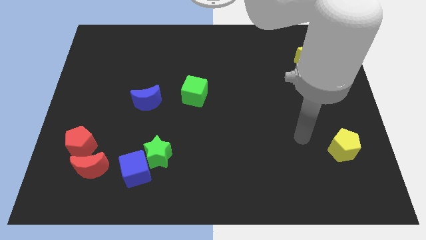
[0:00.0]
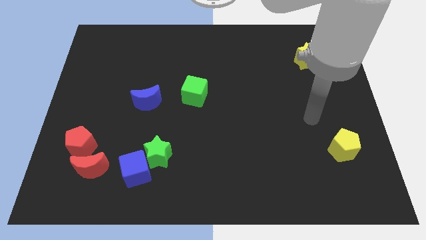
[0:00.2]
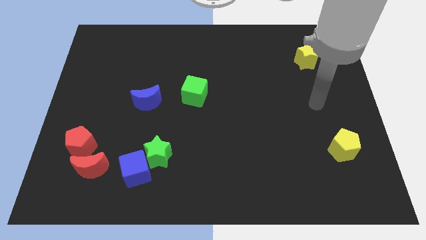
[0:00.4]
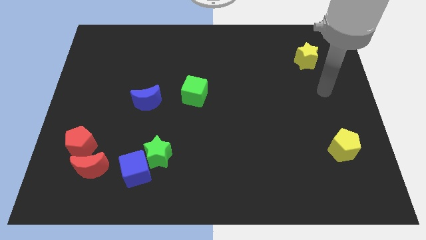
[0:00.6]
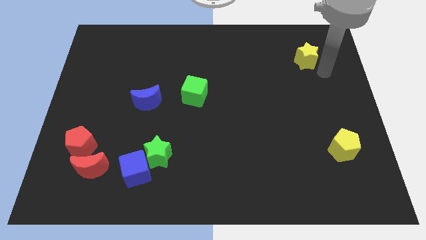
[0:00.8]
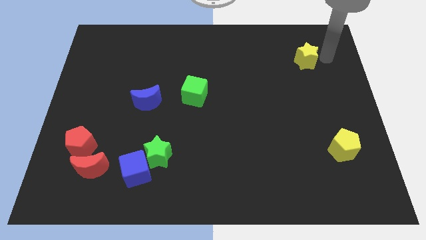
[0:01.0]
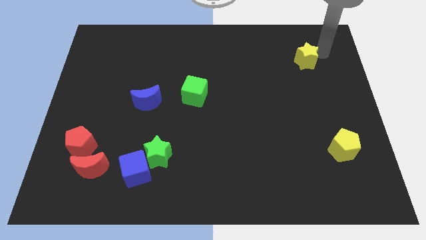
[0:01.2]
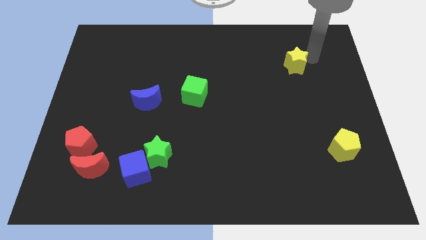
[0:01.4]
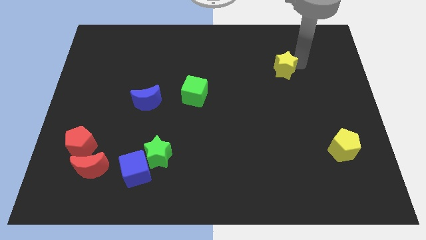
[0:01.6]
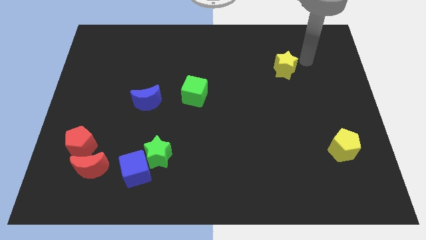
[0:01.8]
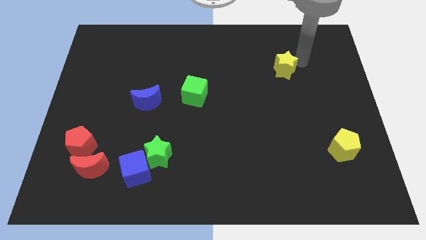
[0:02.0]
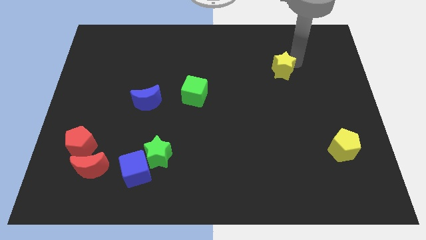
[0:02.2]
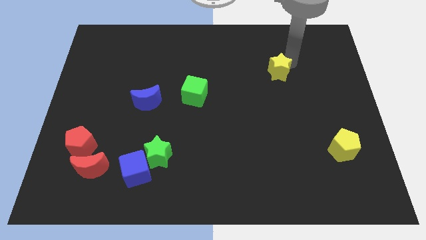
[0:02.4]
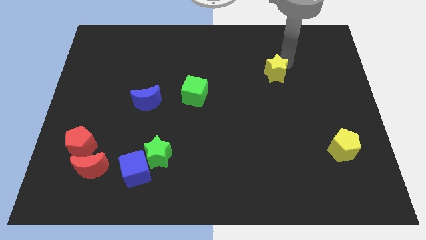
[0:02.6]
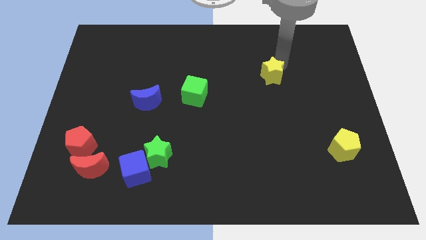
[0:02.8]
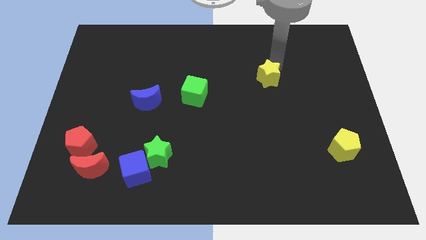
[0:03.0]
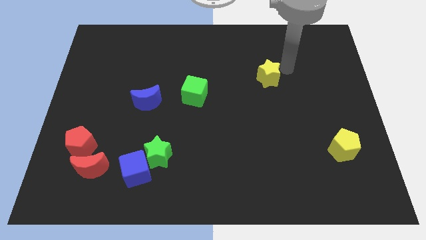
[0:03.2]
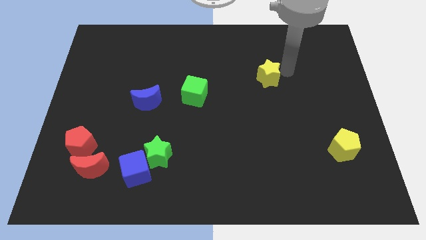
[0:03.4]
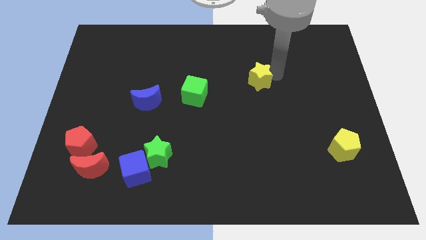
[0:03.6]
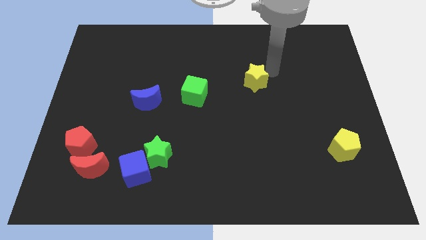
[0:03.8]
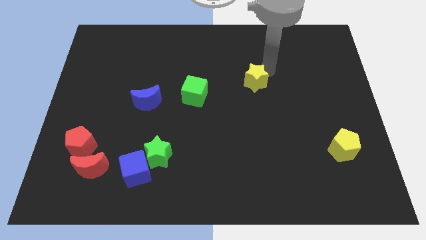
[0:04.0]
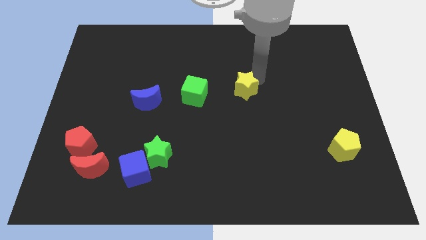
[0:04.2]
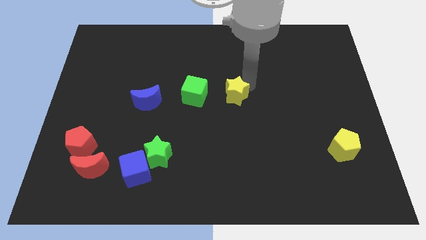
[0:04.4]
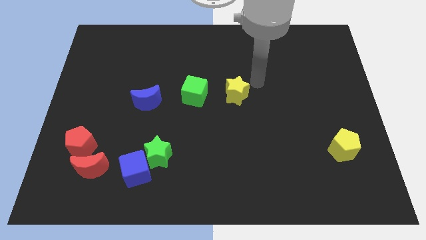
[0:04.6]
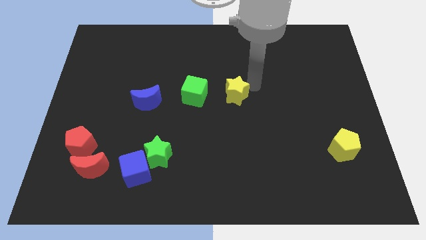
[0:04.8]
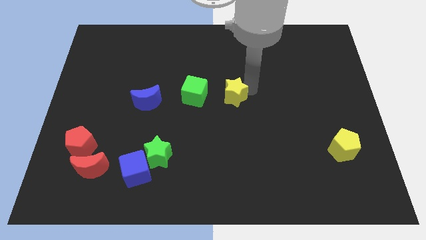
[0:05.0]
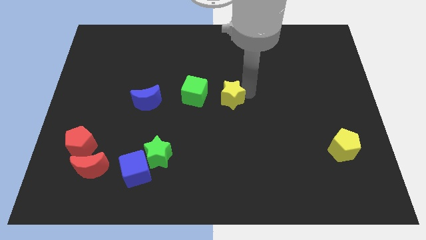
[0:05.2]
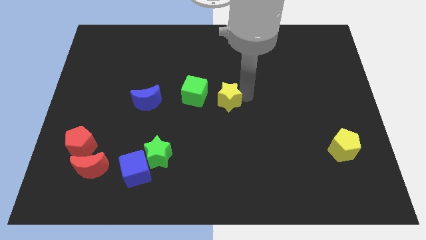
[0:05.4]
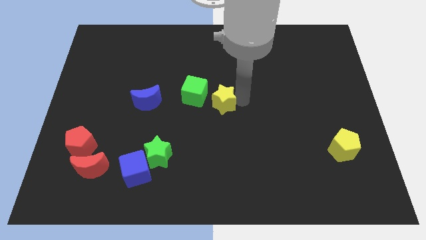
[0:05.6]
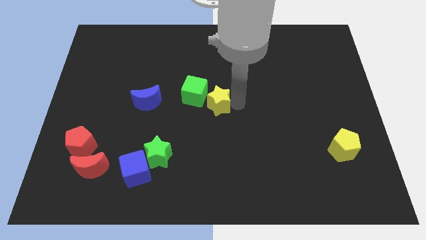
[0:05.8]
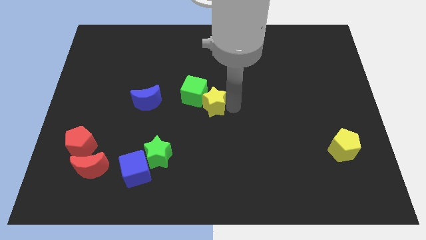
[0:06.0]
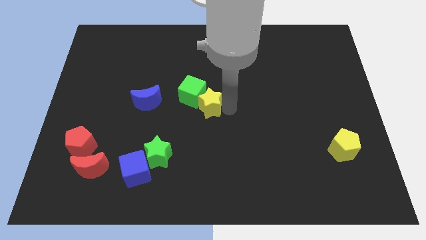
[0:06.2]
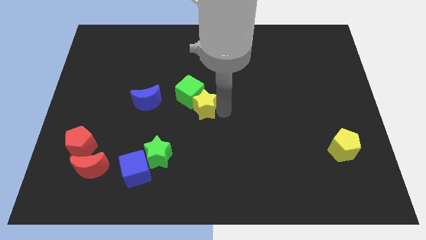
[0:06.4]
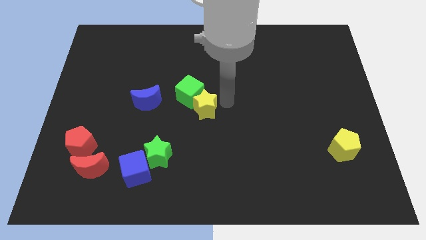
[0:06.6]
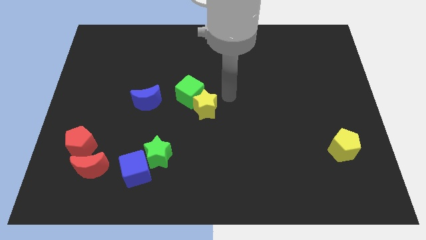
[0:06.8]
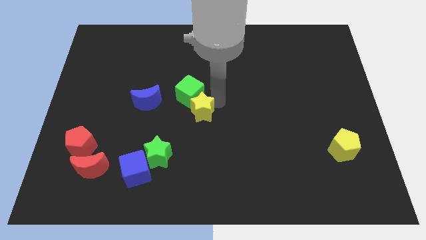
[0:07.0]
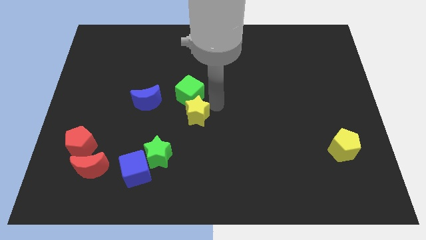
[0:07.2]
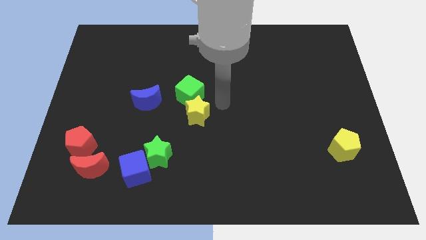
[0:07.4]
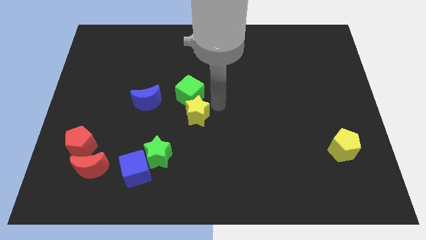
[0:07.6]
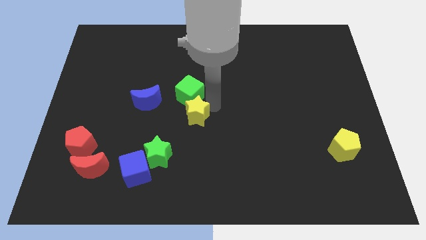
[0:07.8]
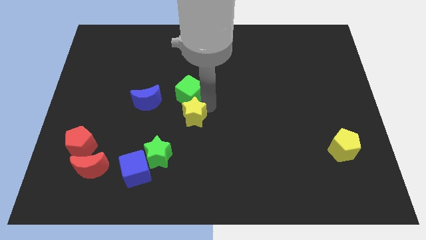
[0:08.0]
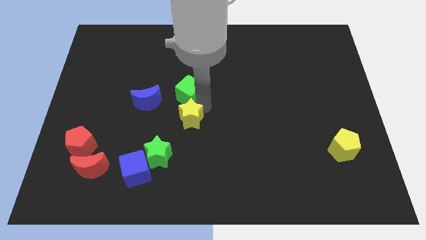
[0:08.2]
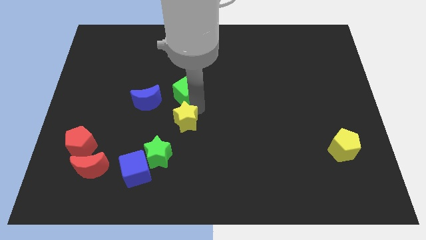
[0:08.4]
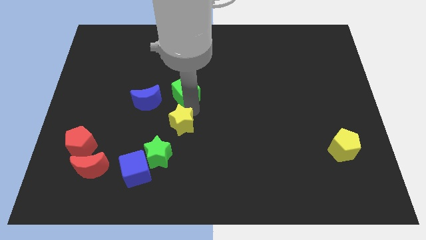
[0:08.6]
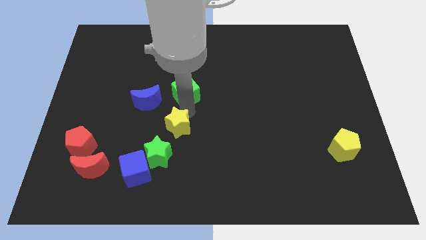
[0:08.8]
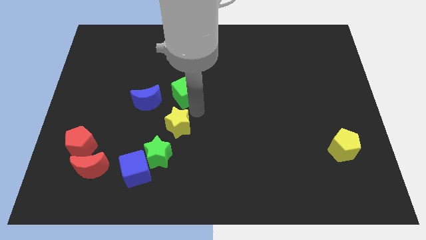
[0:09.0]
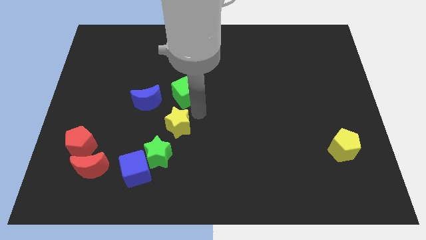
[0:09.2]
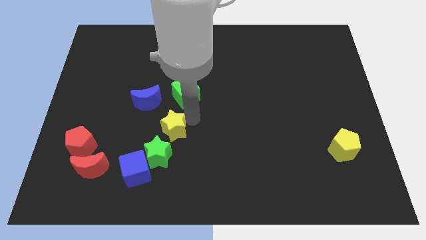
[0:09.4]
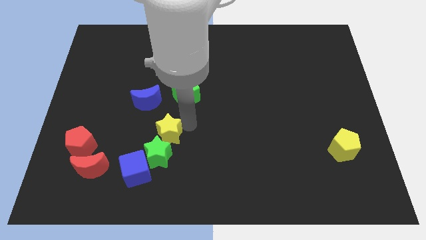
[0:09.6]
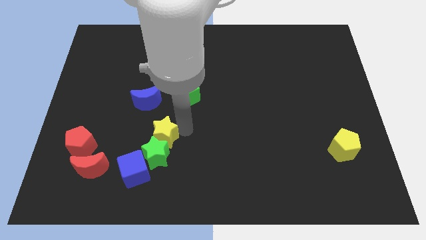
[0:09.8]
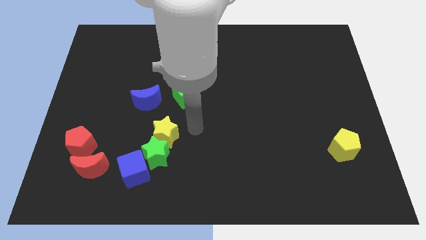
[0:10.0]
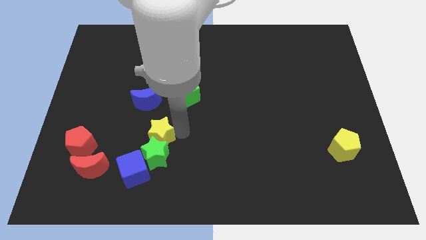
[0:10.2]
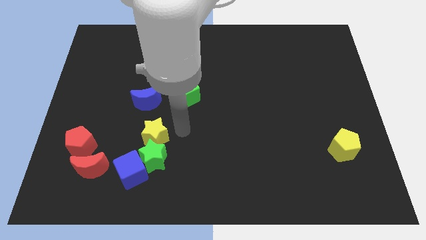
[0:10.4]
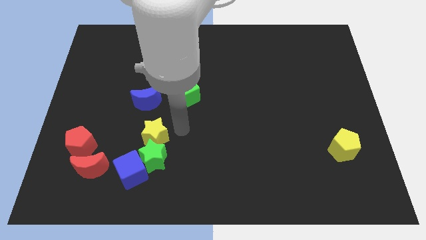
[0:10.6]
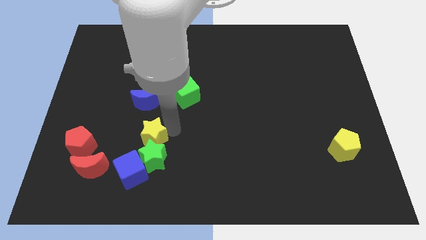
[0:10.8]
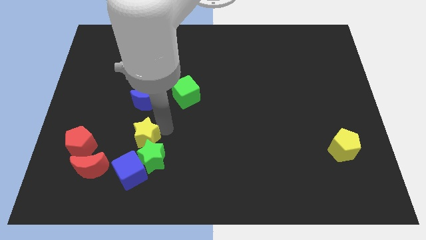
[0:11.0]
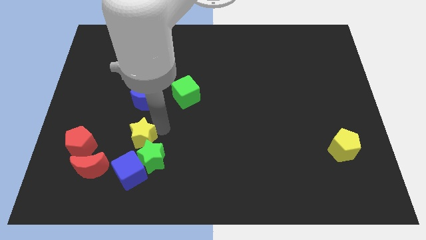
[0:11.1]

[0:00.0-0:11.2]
move the yellow star to the top right side of the red moon

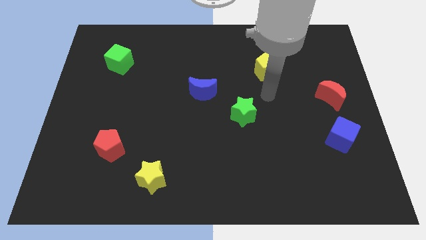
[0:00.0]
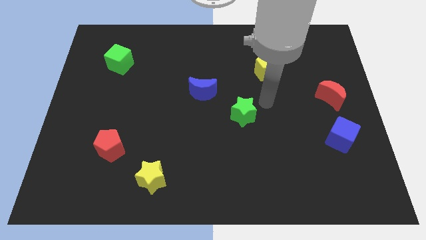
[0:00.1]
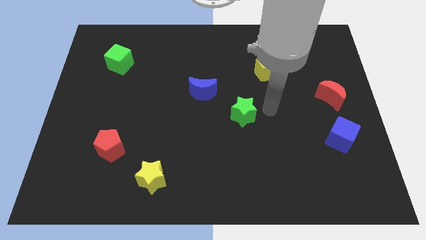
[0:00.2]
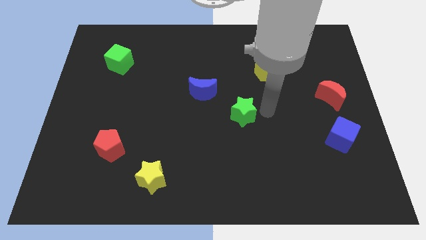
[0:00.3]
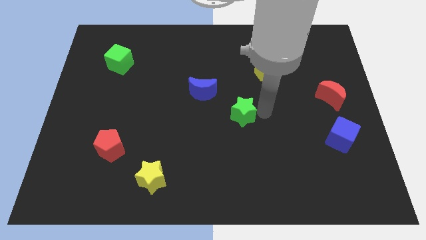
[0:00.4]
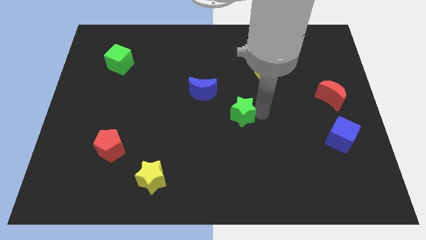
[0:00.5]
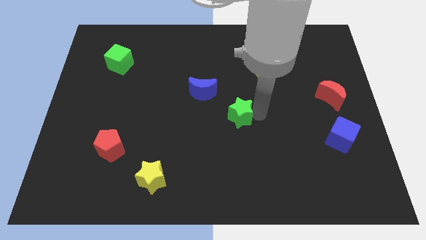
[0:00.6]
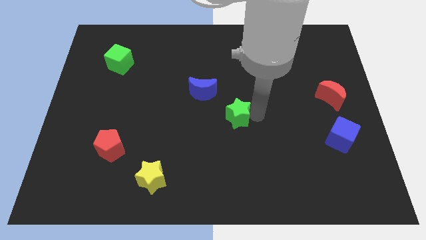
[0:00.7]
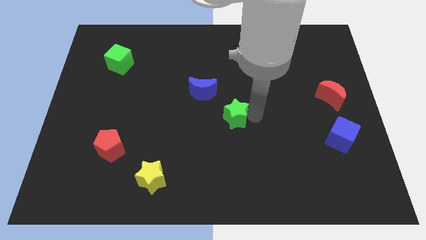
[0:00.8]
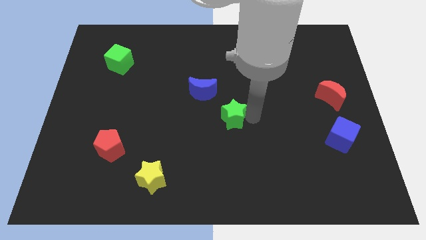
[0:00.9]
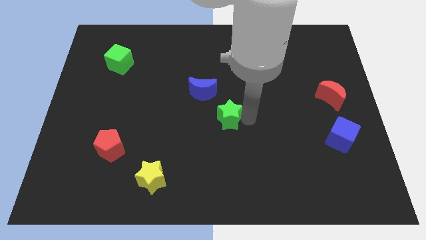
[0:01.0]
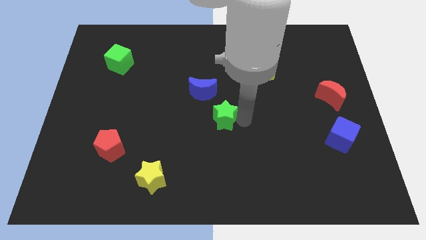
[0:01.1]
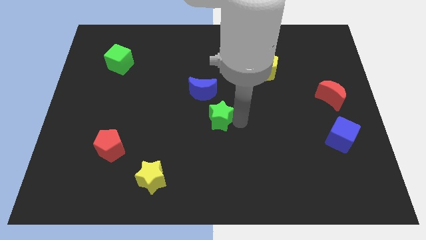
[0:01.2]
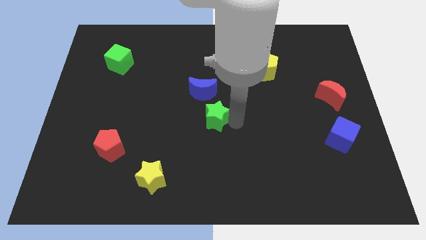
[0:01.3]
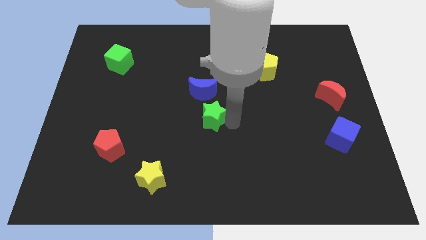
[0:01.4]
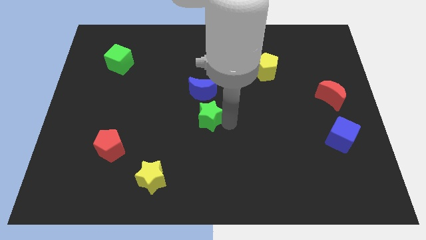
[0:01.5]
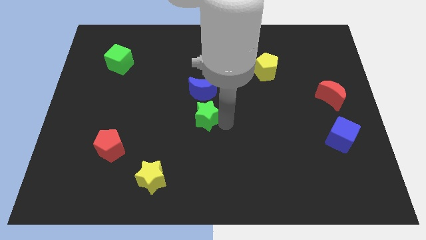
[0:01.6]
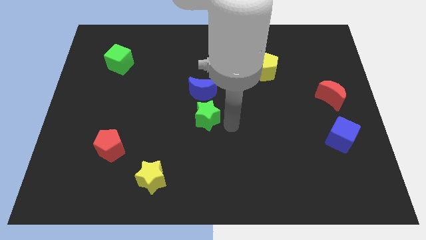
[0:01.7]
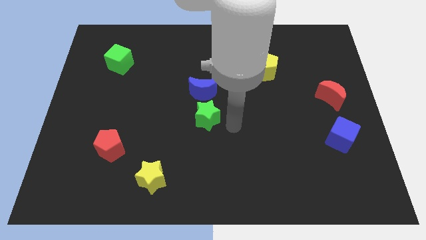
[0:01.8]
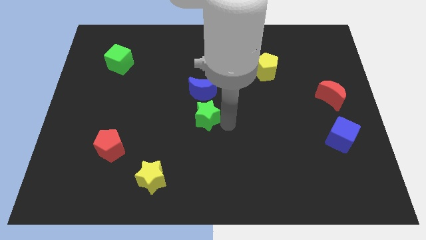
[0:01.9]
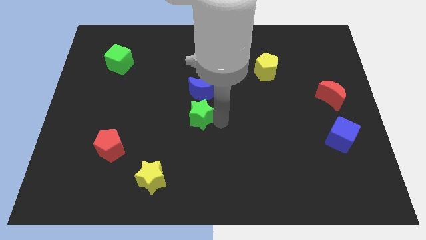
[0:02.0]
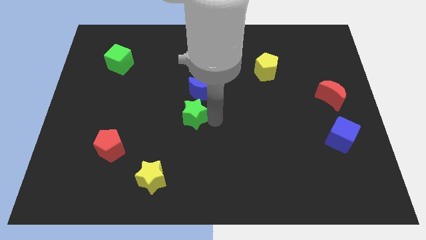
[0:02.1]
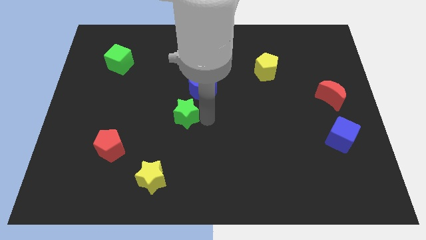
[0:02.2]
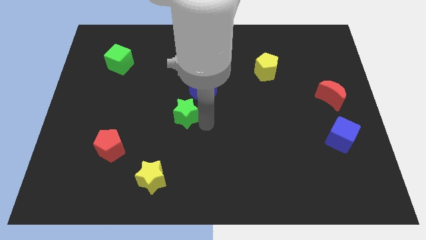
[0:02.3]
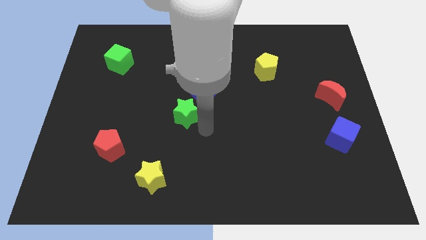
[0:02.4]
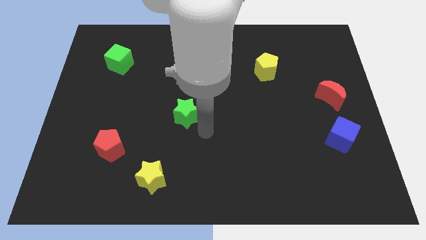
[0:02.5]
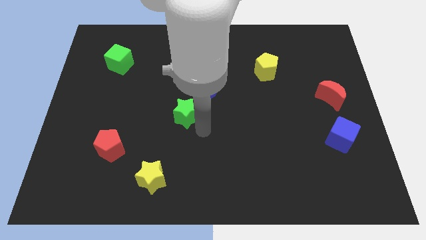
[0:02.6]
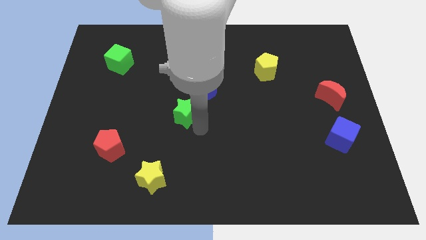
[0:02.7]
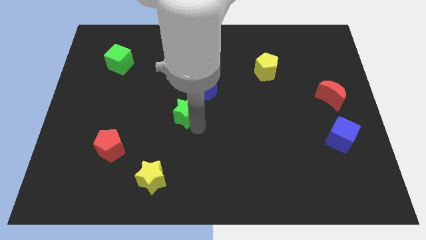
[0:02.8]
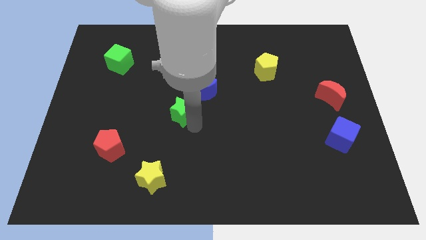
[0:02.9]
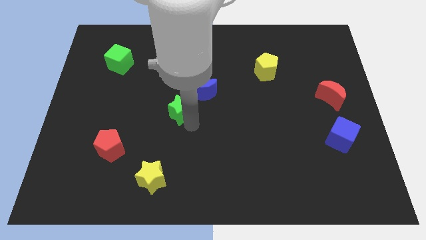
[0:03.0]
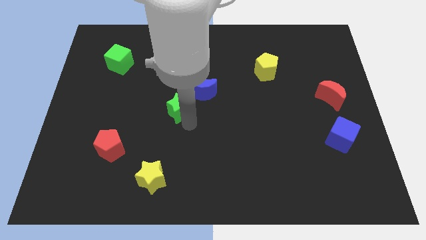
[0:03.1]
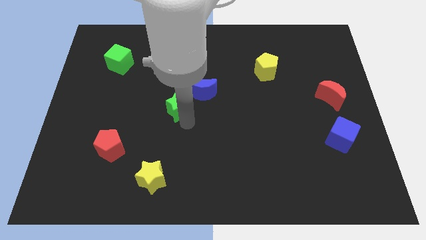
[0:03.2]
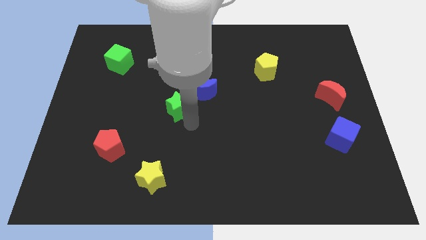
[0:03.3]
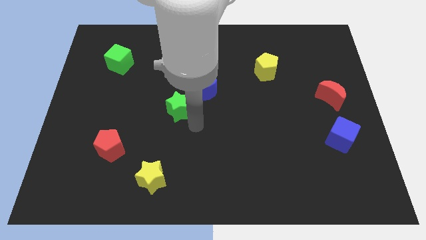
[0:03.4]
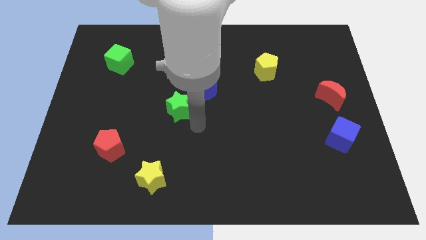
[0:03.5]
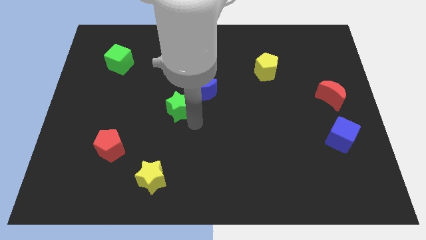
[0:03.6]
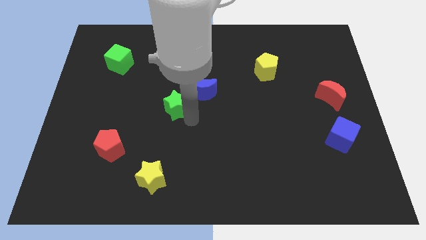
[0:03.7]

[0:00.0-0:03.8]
slide the green star just left of the blue moon
